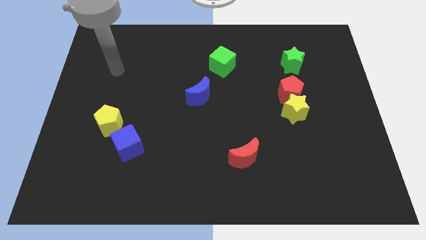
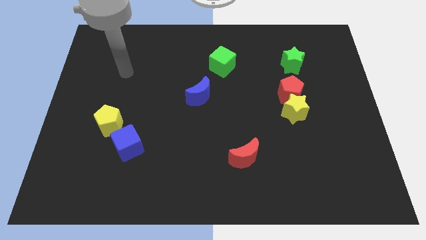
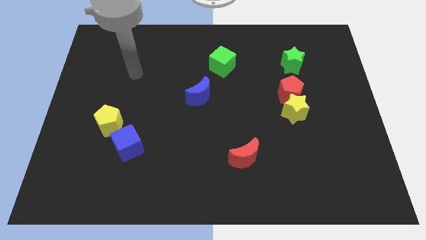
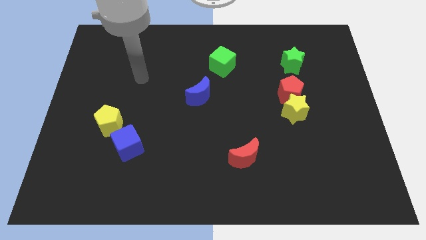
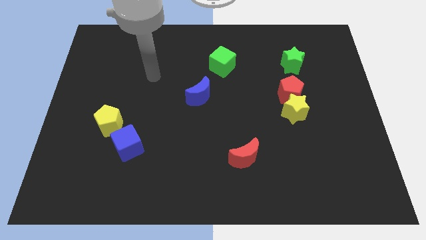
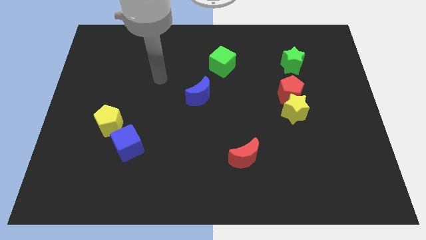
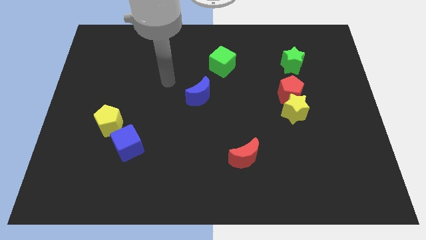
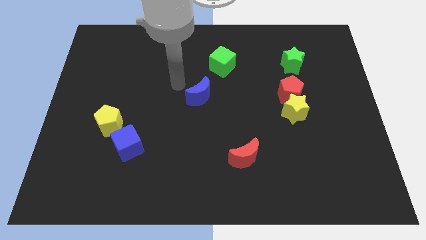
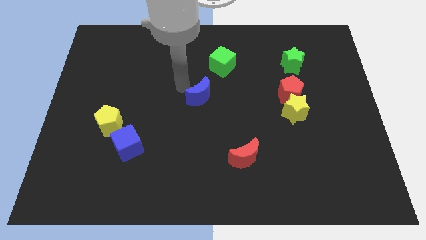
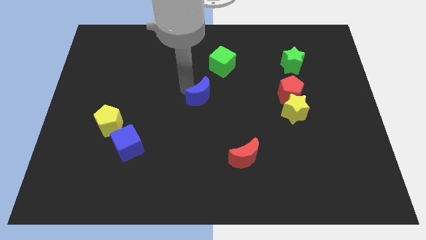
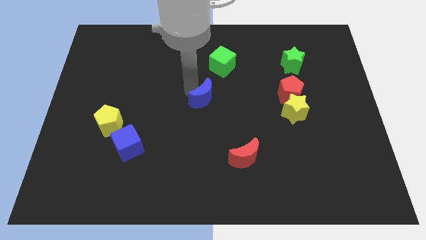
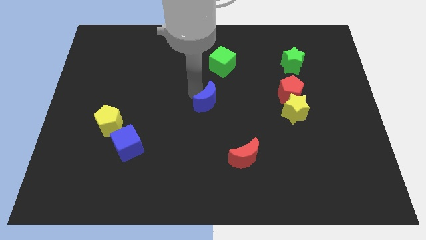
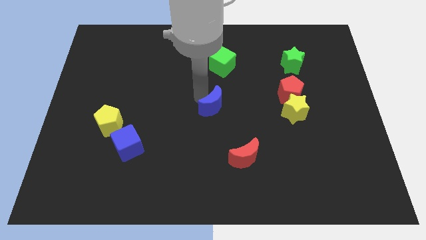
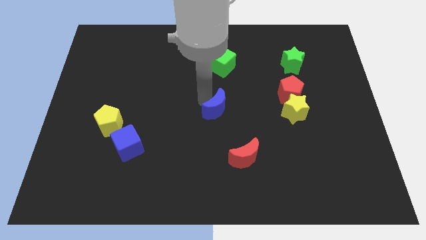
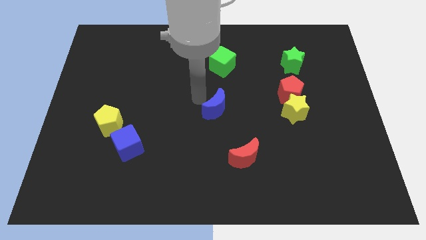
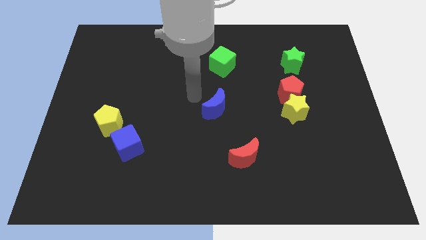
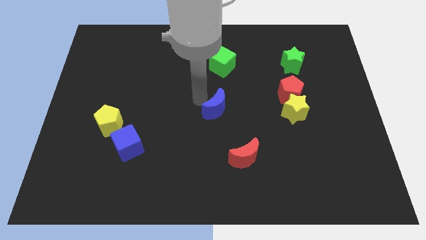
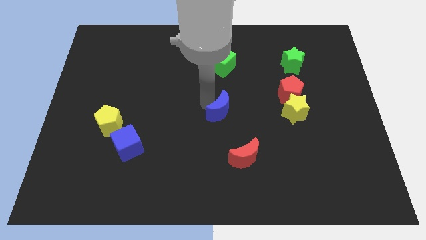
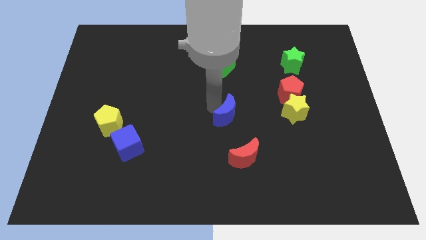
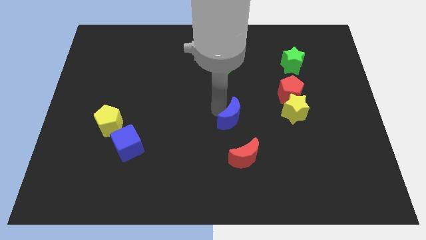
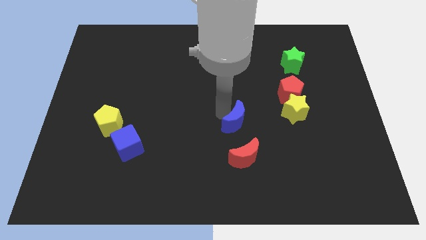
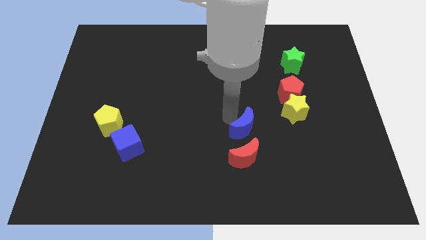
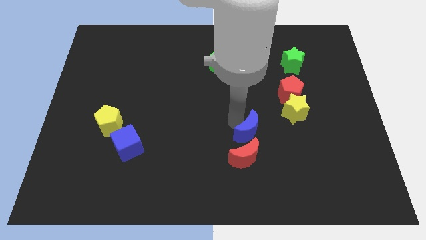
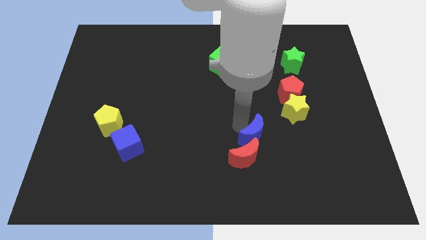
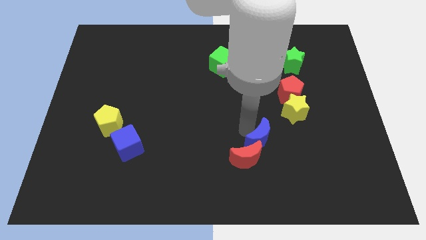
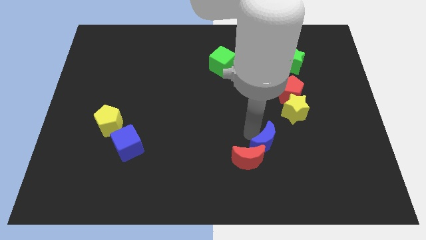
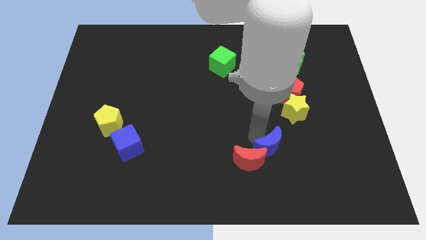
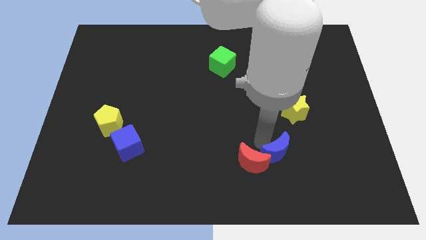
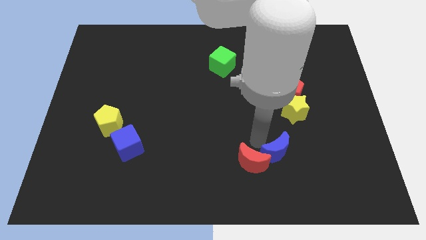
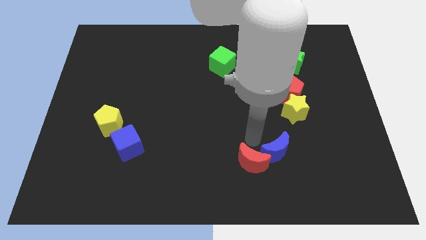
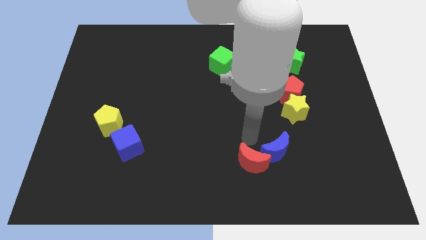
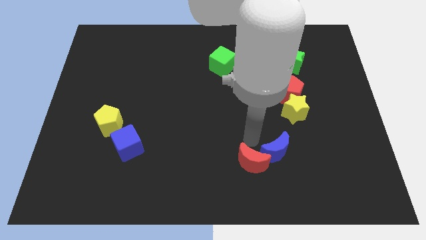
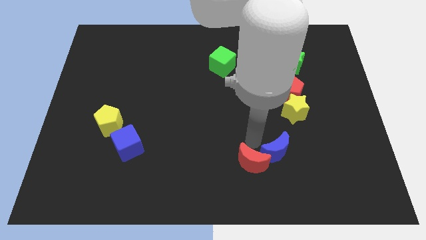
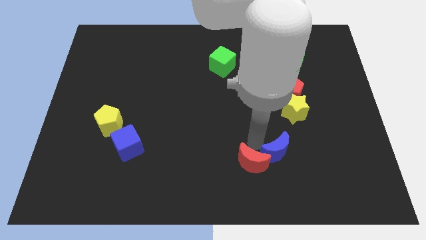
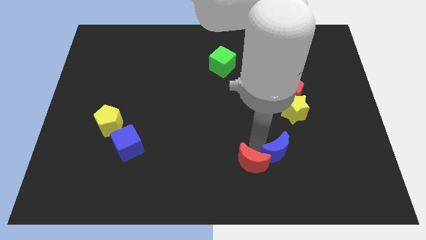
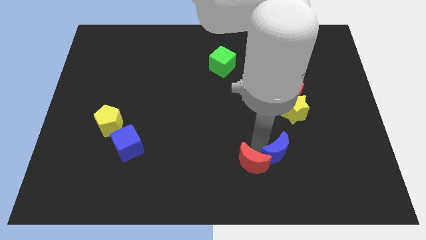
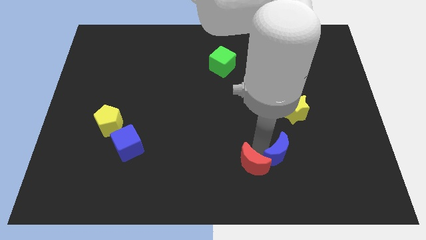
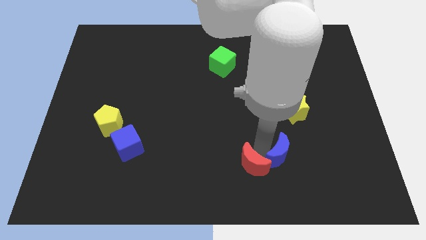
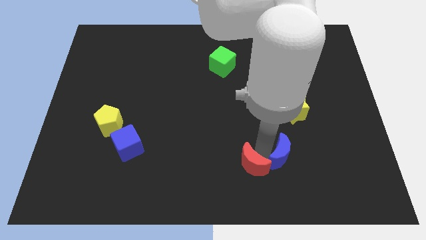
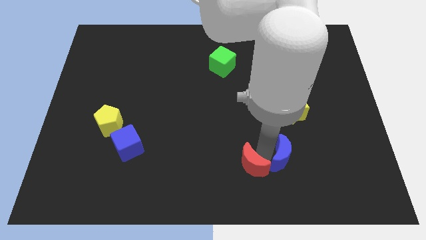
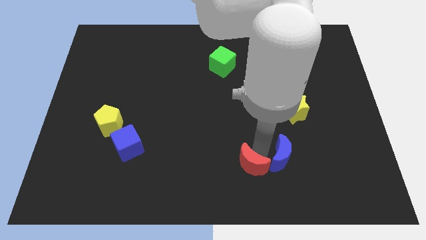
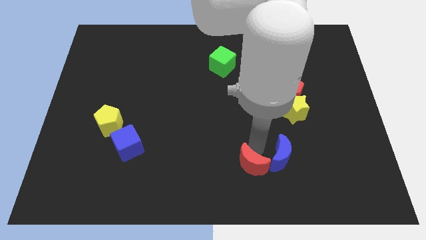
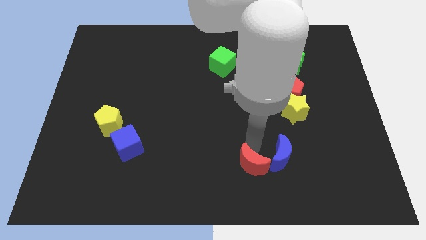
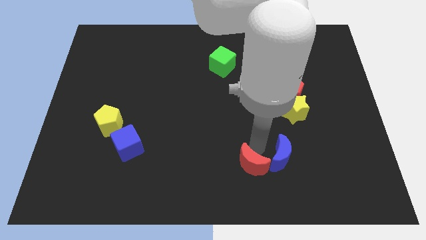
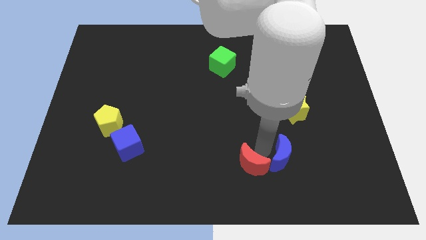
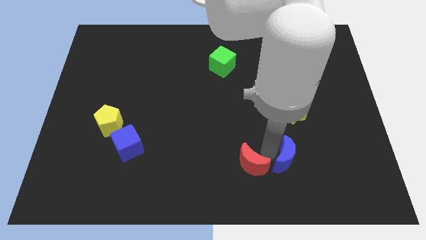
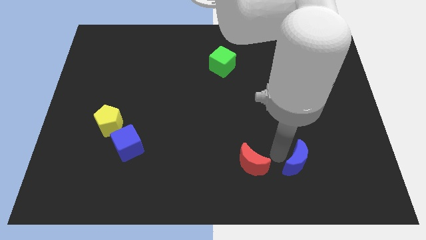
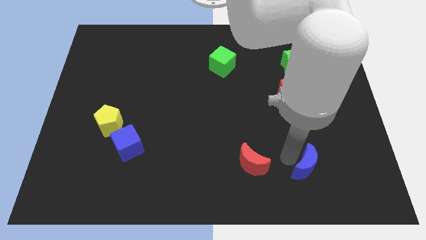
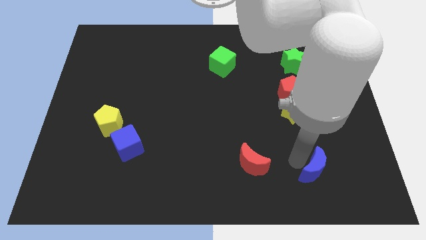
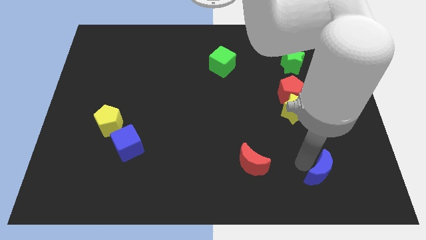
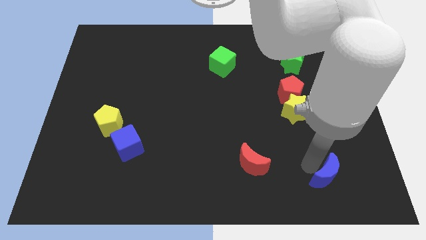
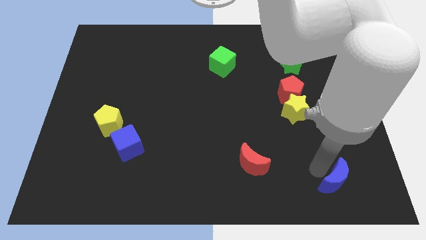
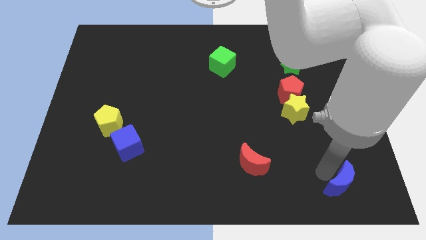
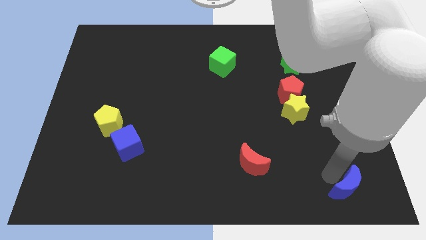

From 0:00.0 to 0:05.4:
push the blue moon to the lower right corner

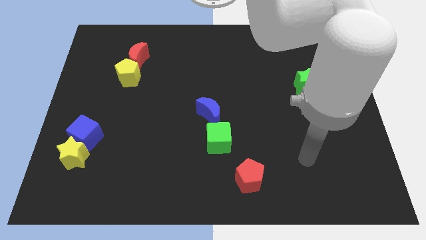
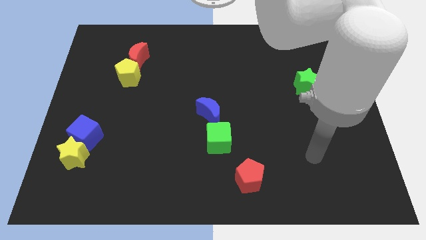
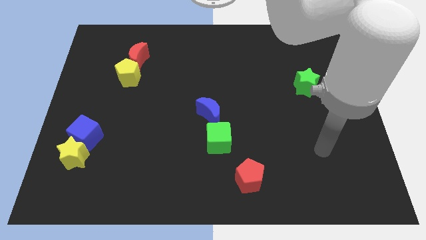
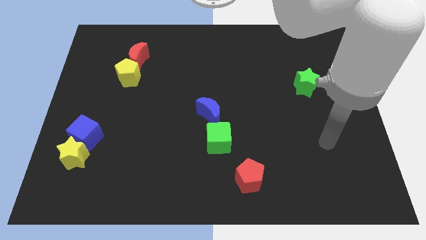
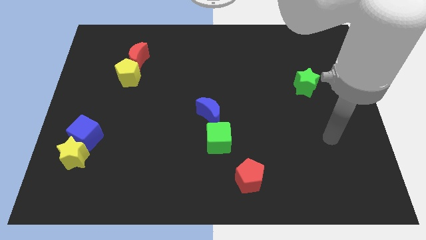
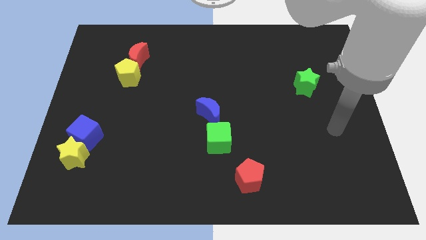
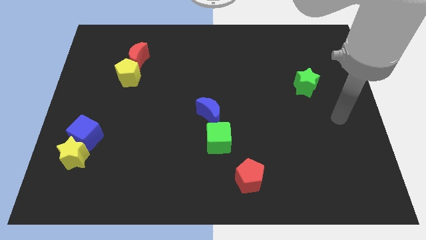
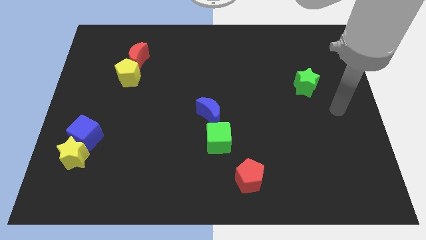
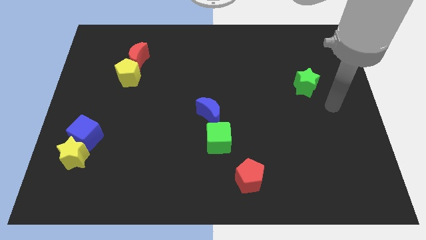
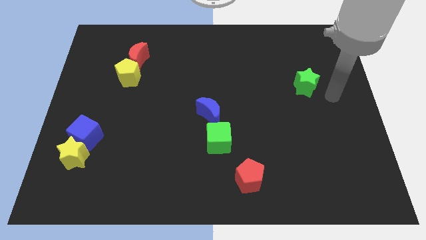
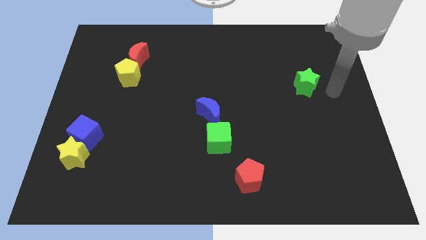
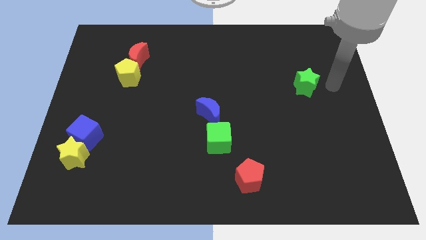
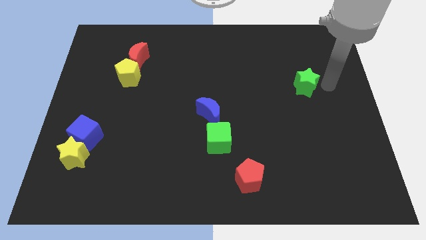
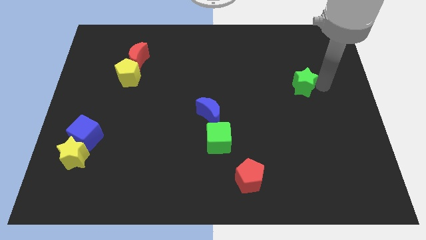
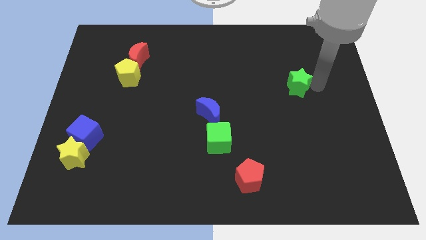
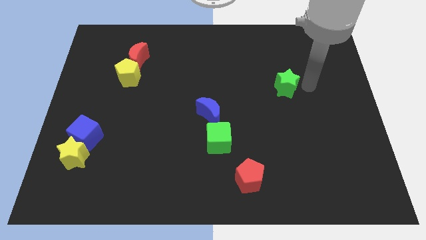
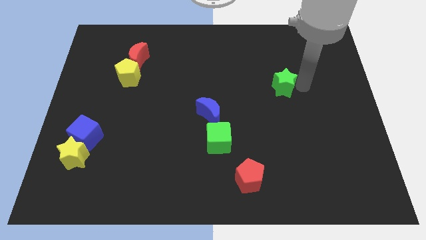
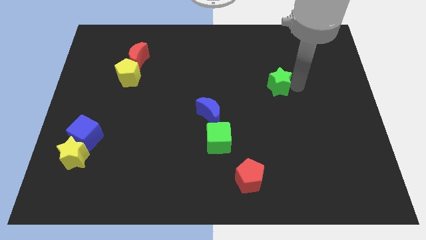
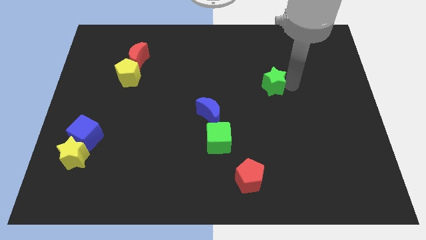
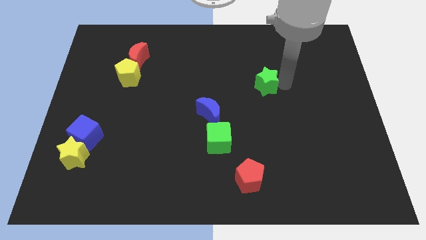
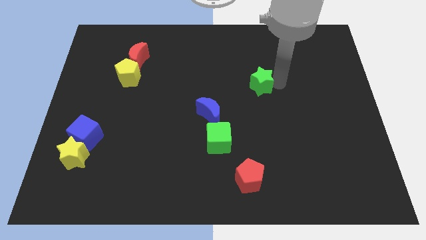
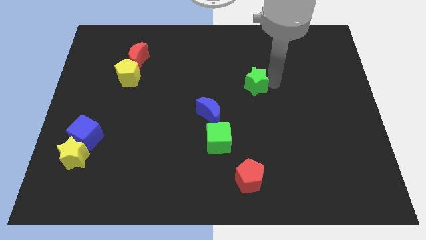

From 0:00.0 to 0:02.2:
put the green star to the middle
